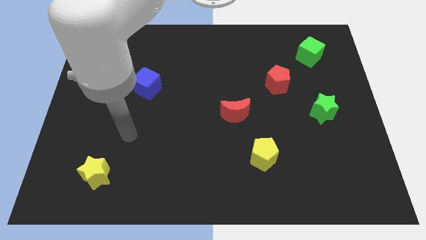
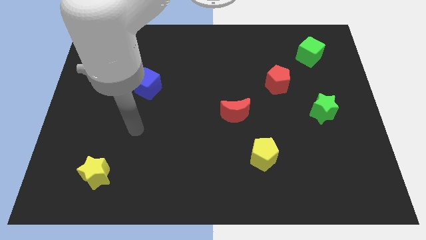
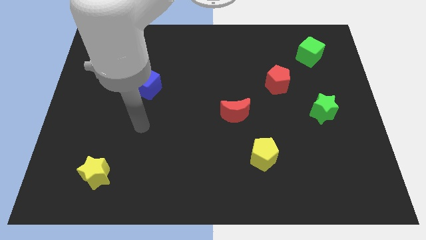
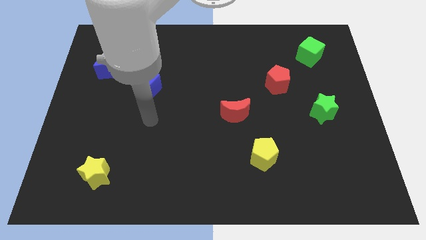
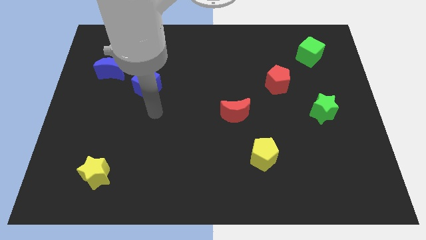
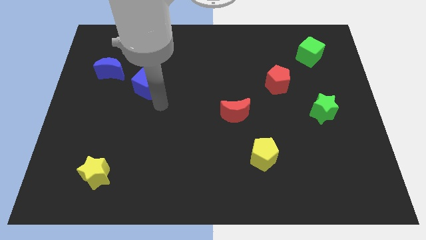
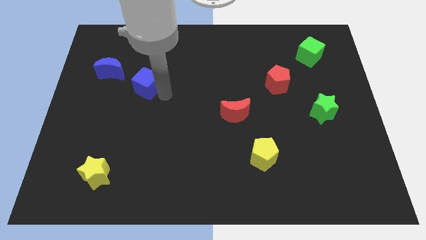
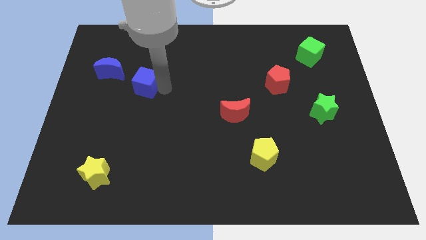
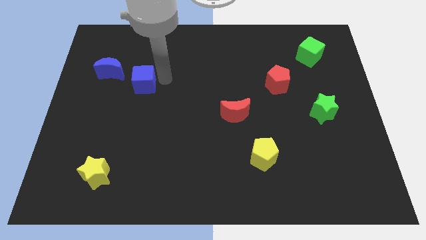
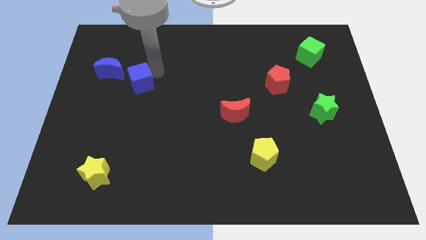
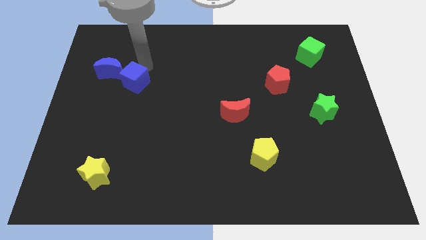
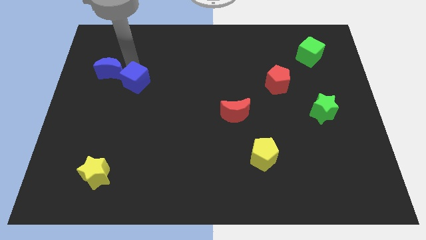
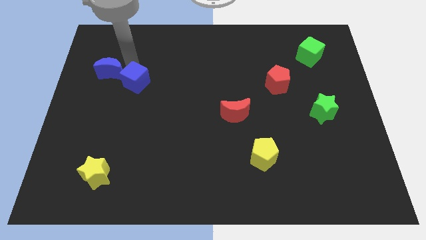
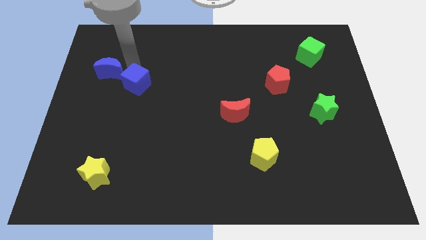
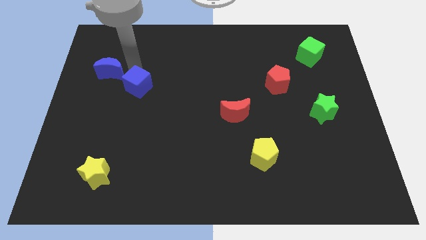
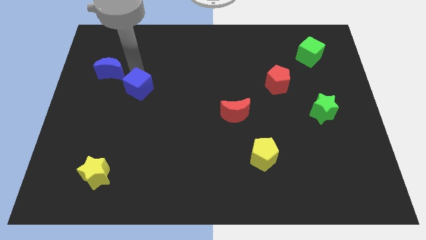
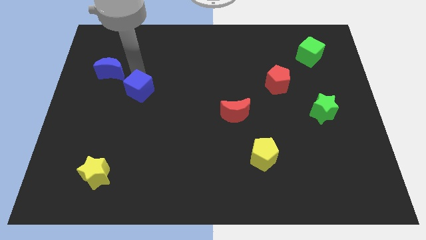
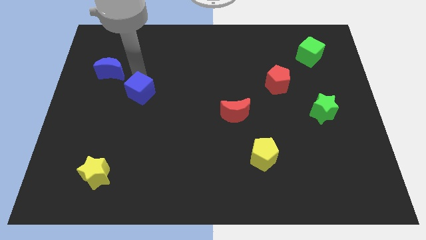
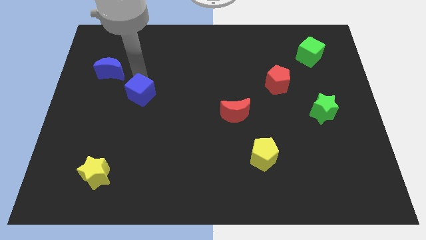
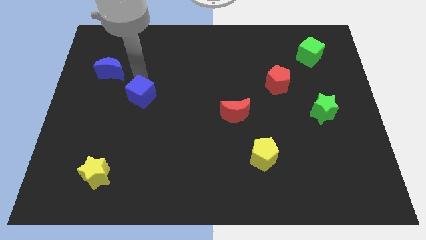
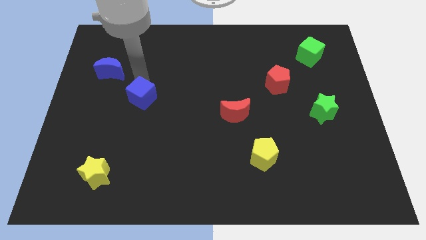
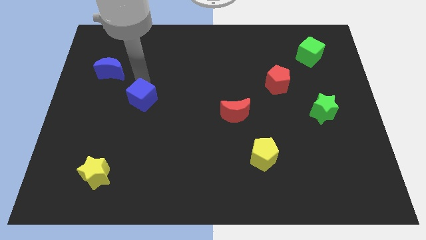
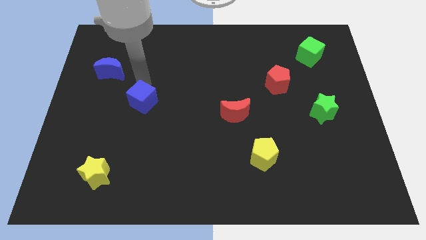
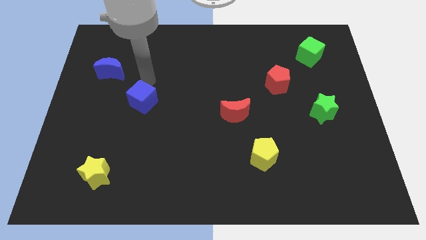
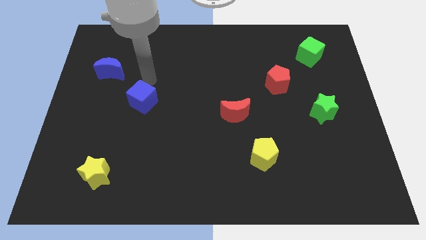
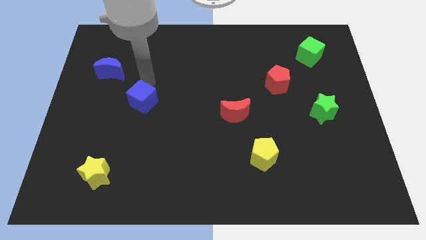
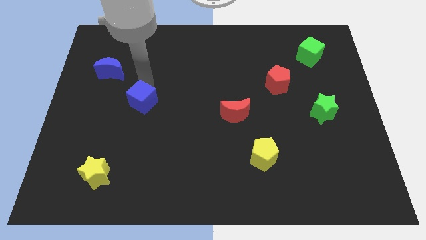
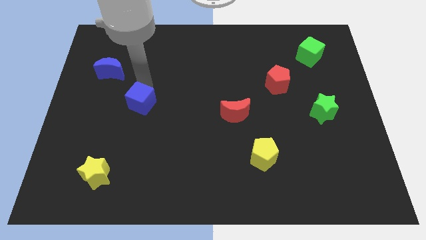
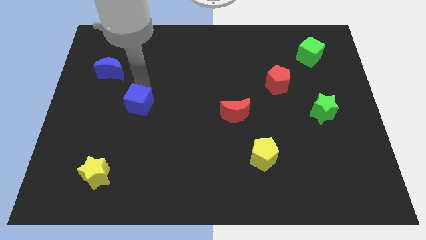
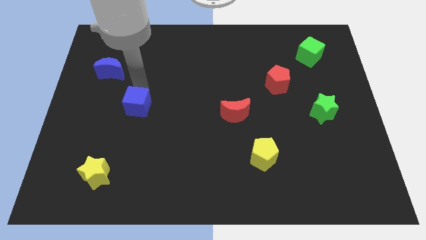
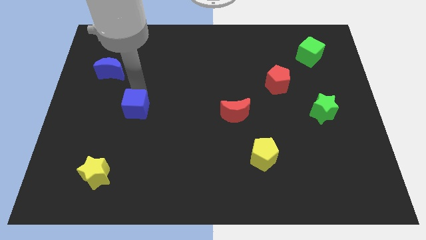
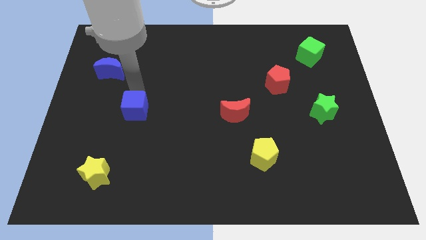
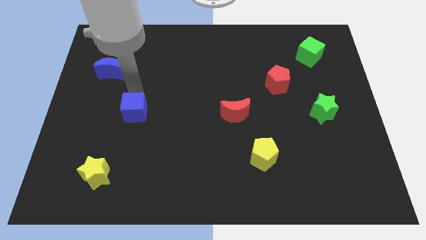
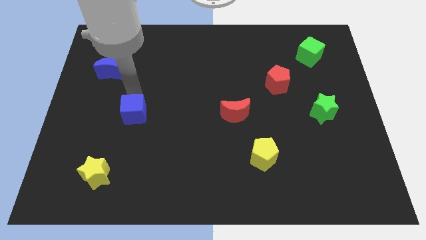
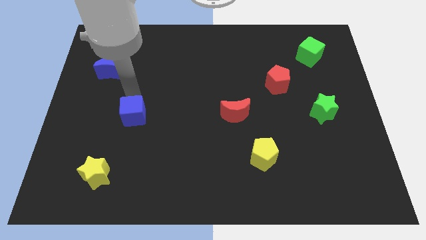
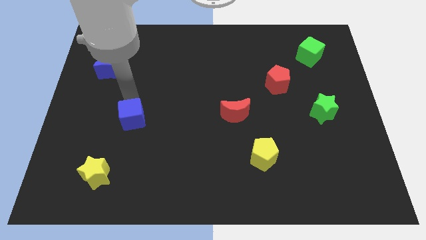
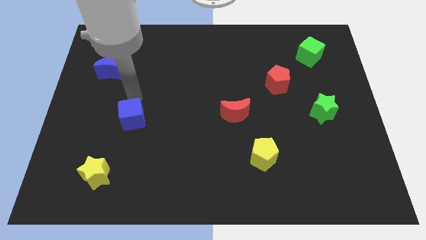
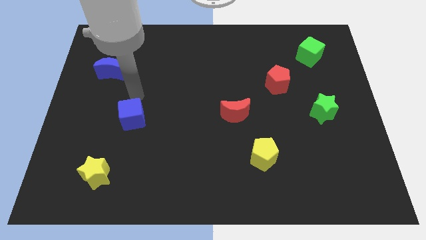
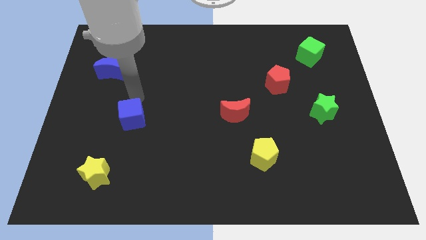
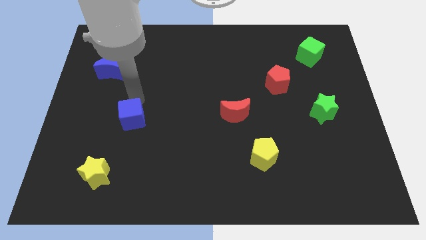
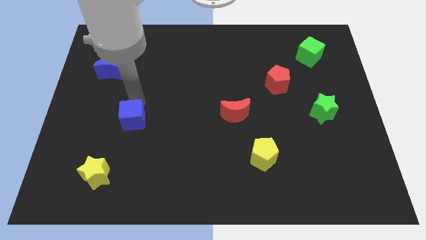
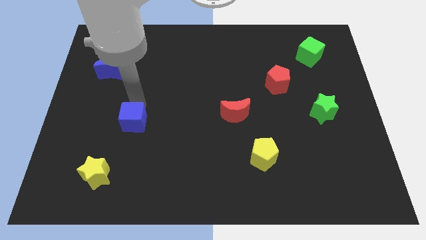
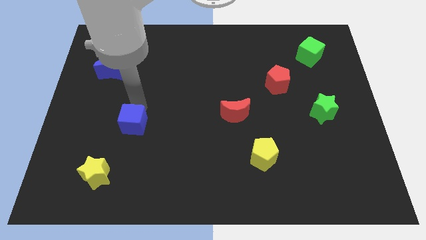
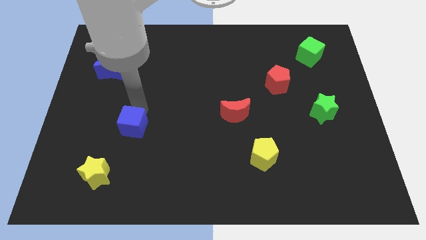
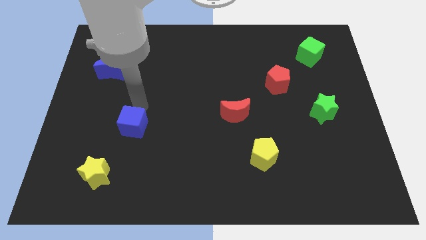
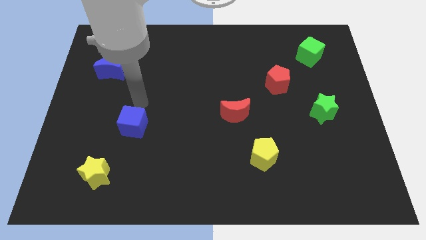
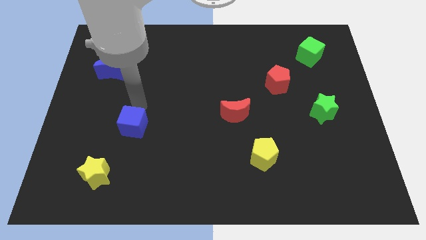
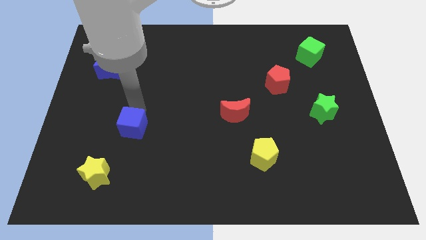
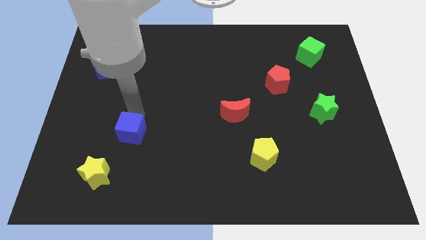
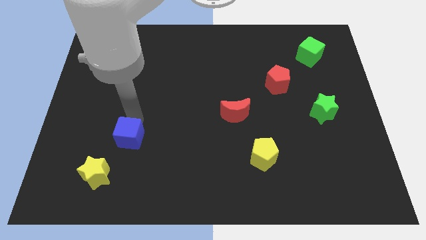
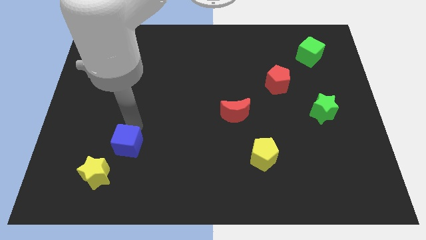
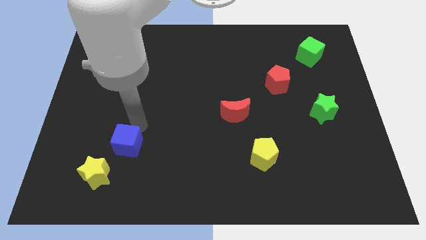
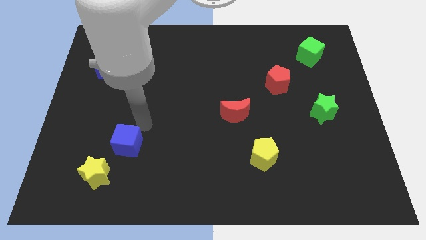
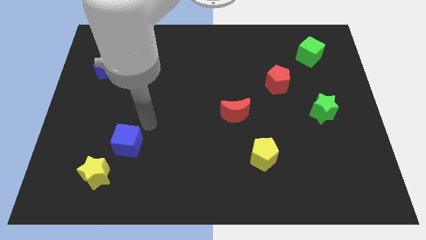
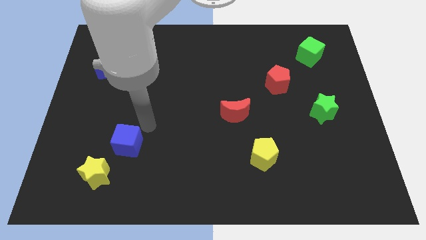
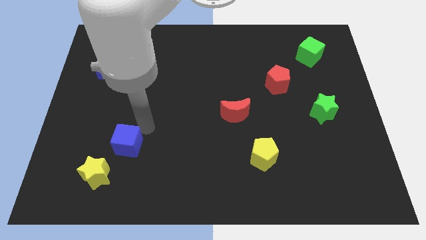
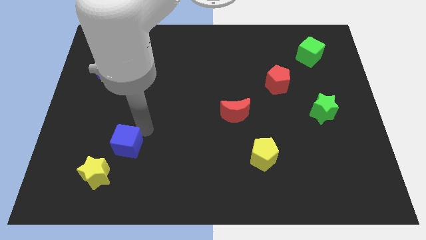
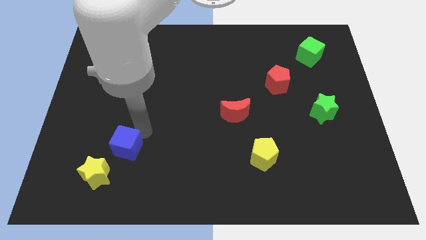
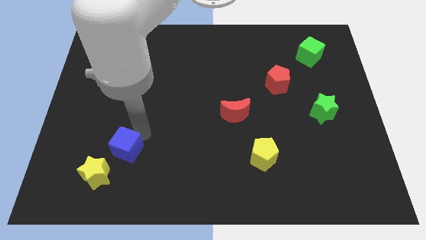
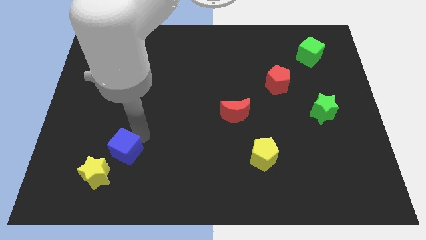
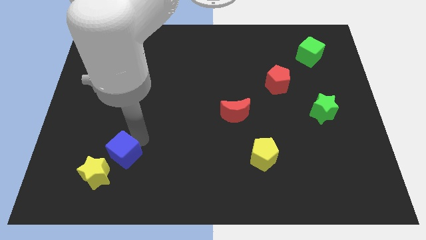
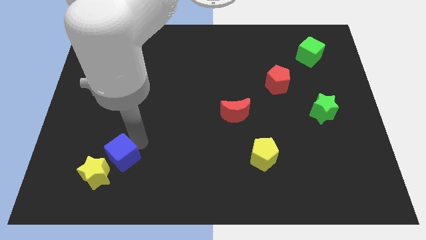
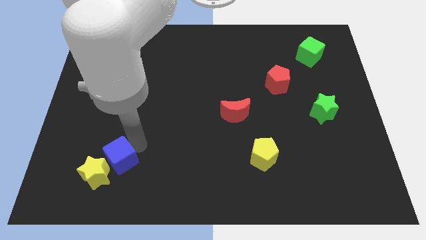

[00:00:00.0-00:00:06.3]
slide the blue cube to the yellow star

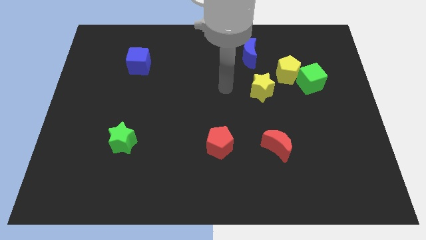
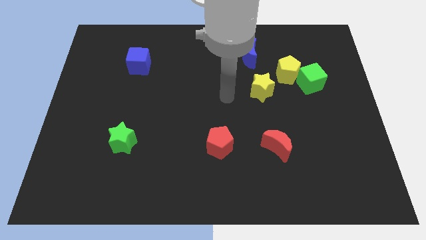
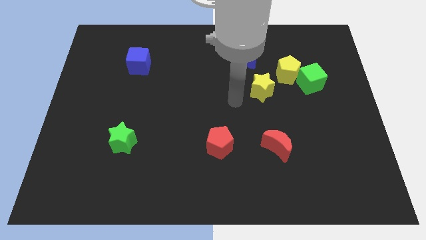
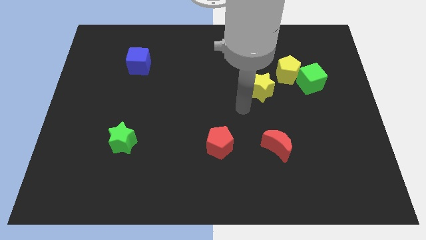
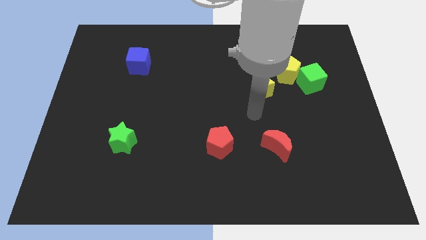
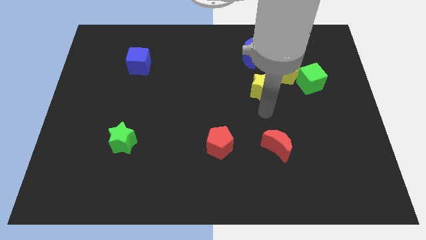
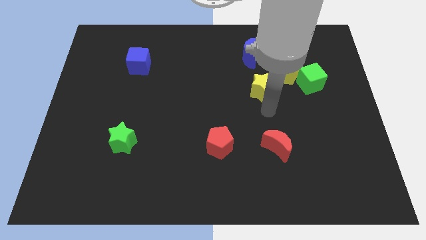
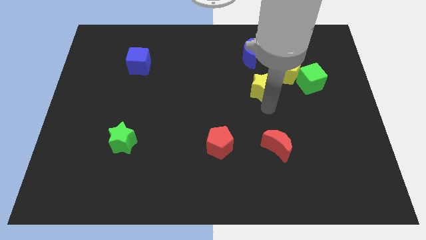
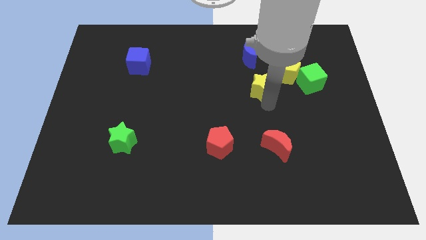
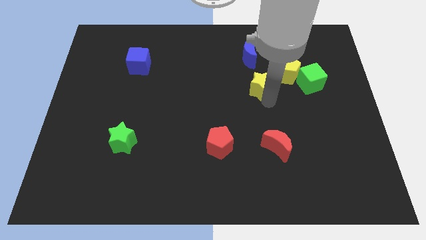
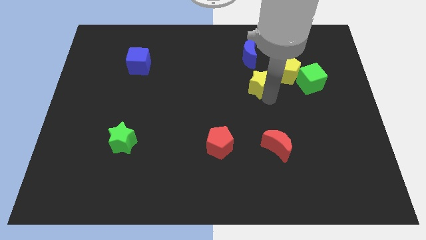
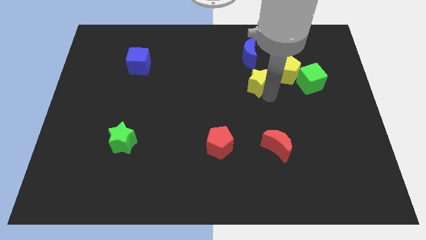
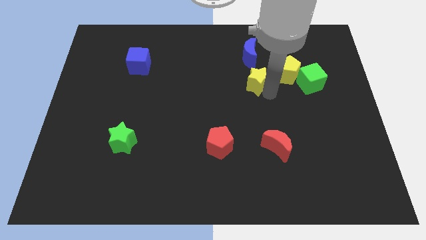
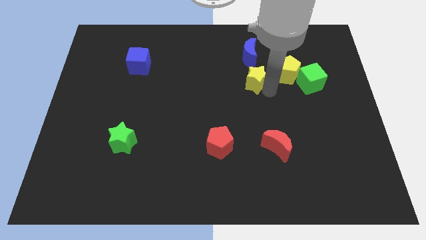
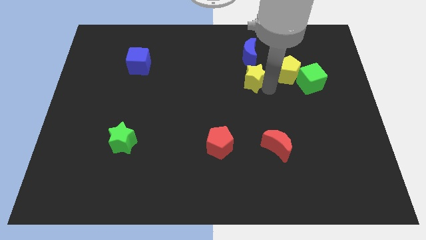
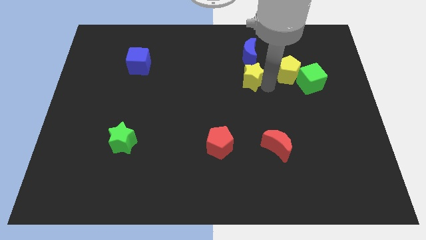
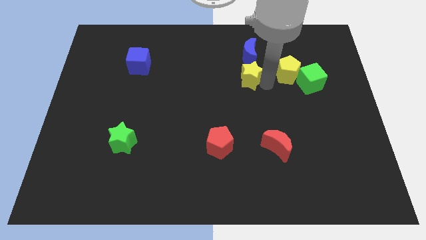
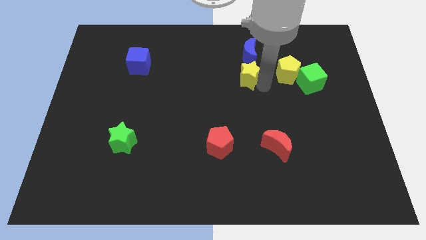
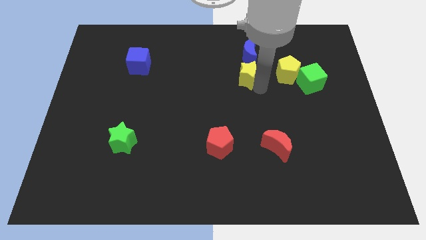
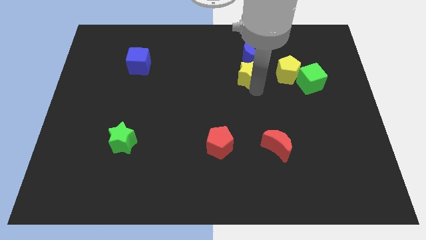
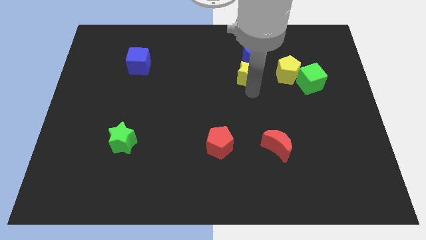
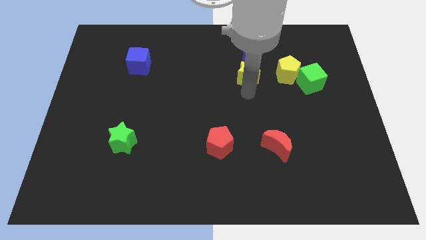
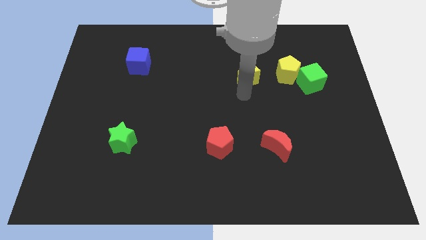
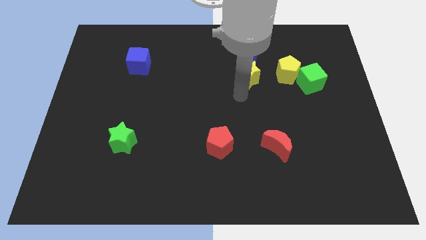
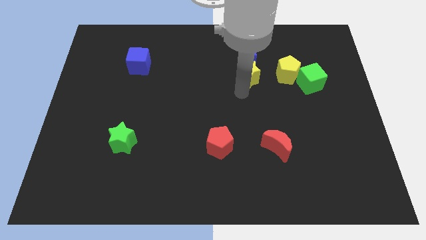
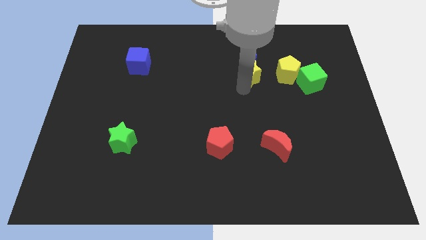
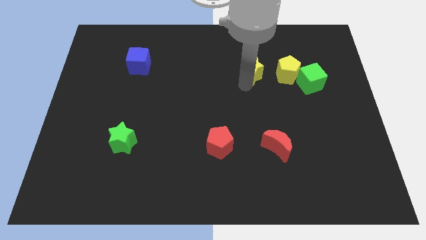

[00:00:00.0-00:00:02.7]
move the yellow star close to the blue moon
